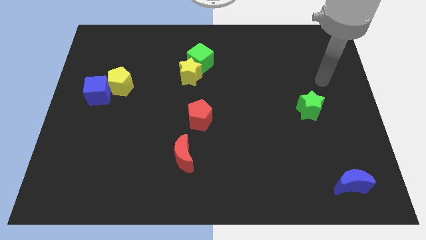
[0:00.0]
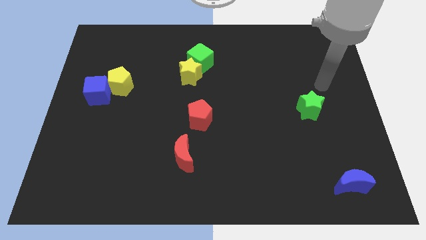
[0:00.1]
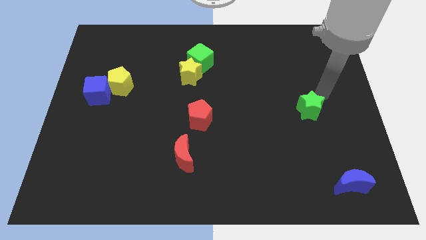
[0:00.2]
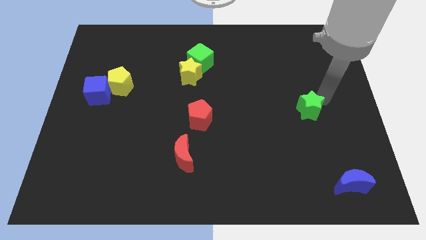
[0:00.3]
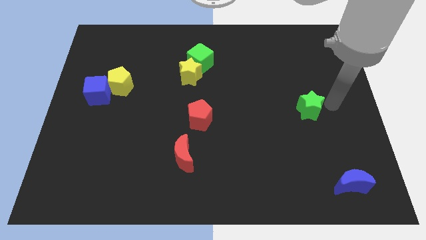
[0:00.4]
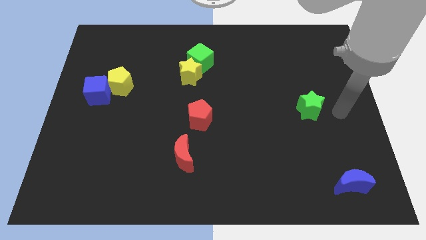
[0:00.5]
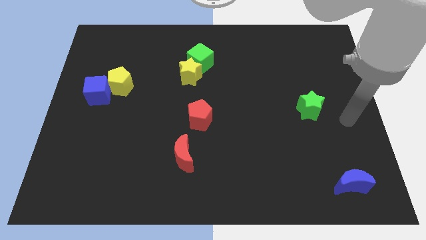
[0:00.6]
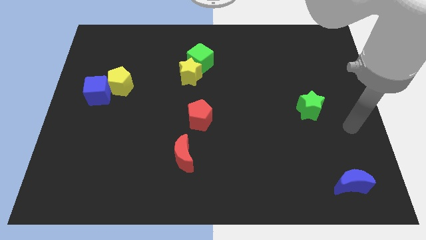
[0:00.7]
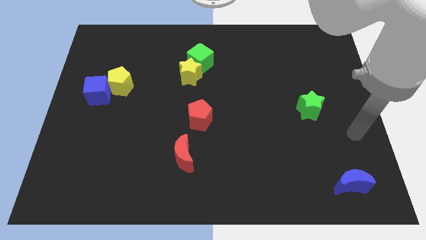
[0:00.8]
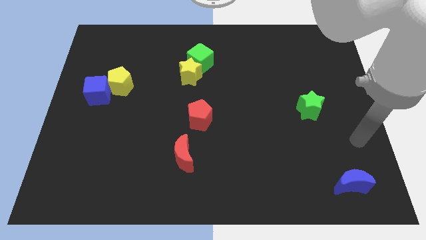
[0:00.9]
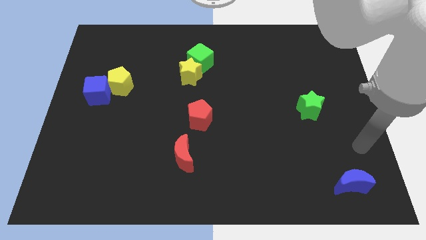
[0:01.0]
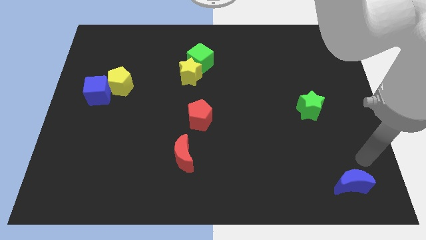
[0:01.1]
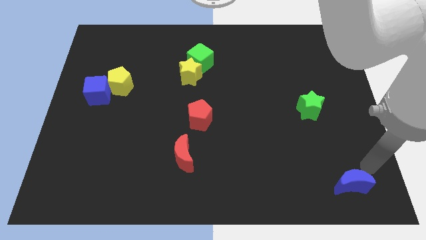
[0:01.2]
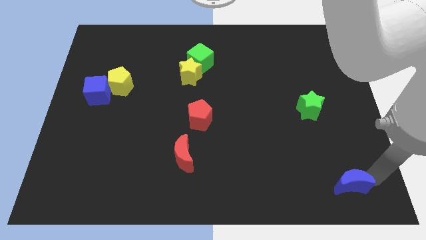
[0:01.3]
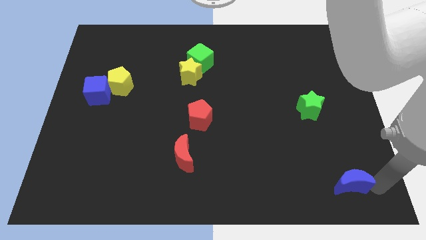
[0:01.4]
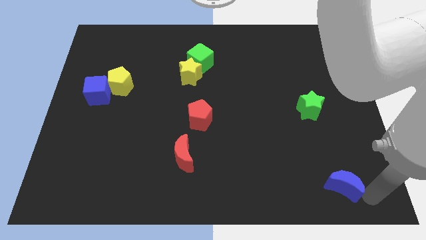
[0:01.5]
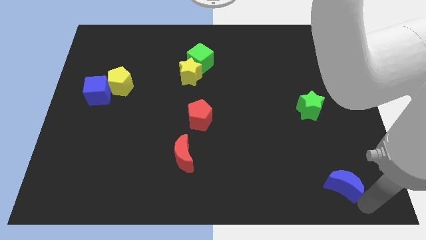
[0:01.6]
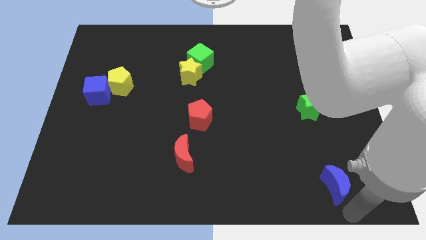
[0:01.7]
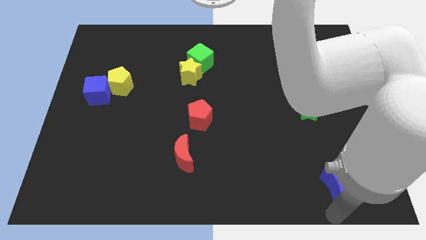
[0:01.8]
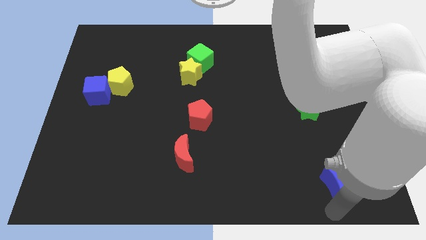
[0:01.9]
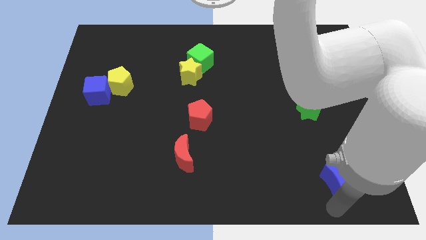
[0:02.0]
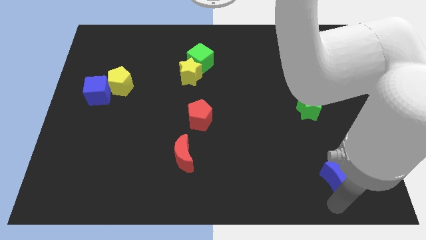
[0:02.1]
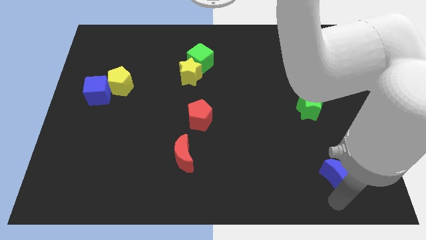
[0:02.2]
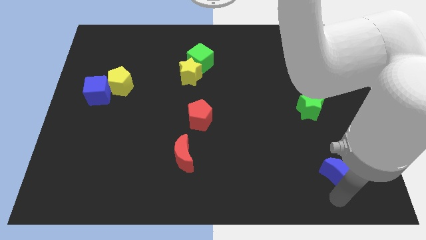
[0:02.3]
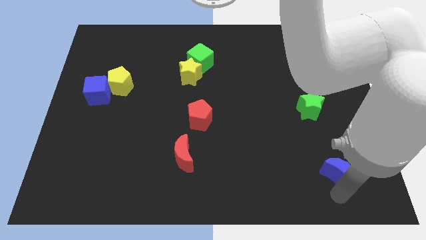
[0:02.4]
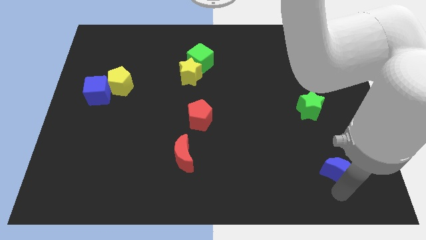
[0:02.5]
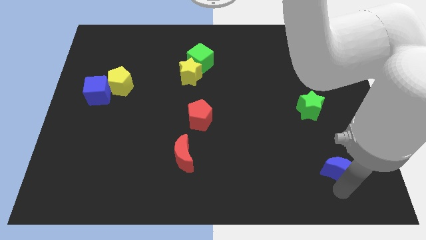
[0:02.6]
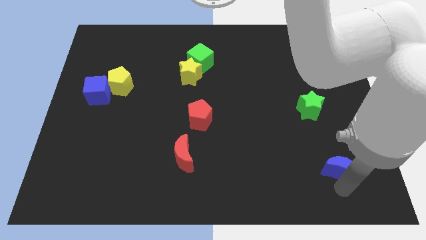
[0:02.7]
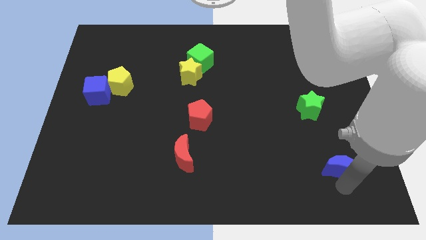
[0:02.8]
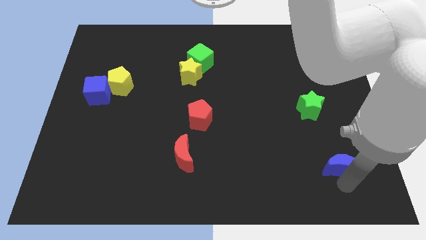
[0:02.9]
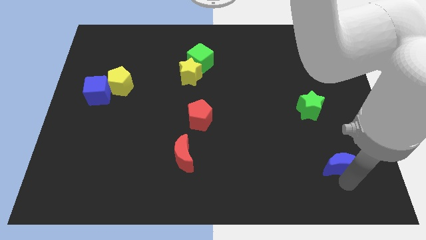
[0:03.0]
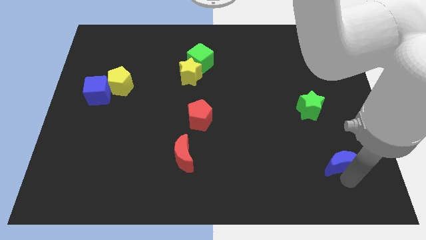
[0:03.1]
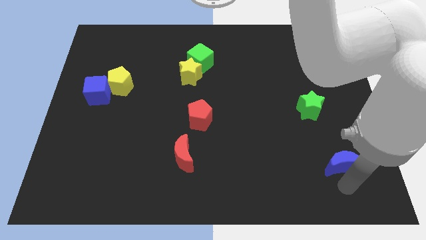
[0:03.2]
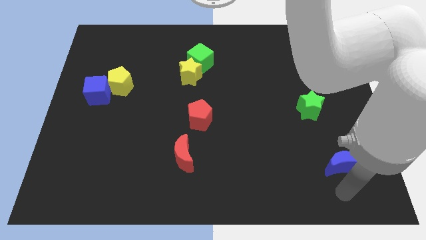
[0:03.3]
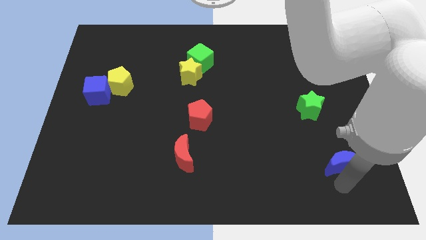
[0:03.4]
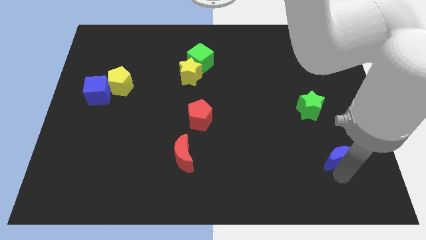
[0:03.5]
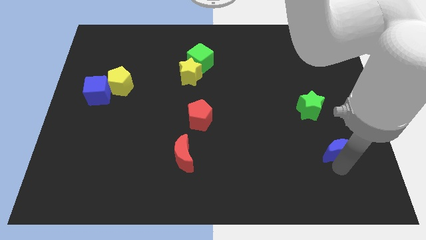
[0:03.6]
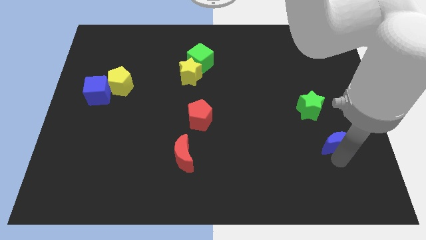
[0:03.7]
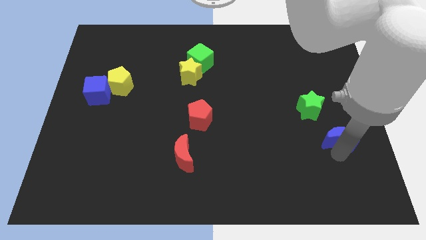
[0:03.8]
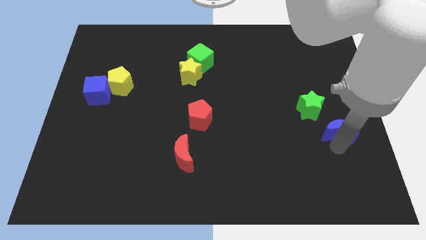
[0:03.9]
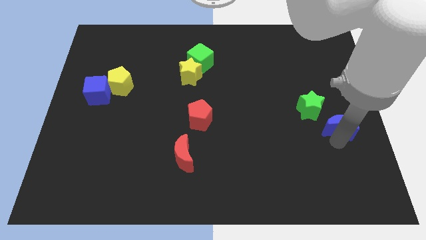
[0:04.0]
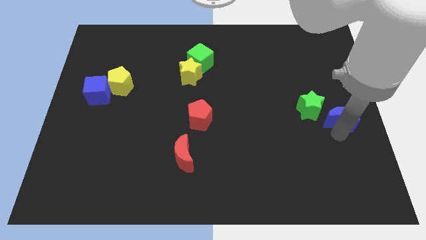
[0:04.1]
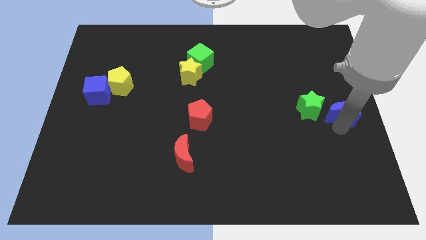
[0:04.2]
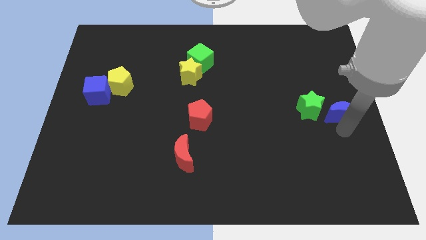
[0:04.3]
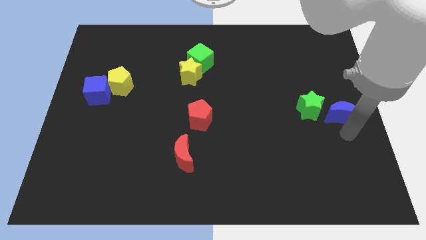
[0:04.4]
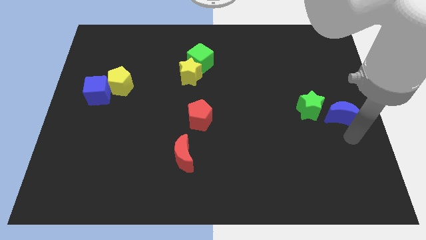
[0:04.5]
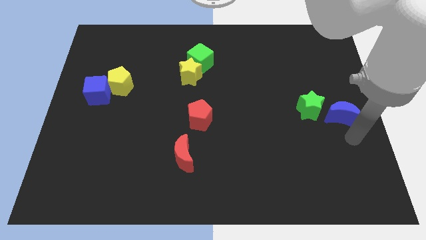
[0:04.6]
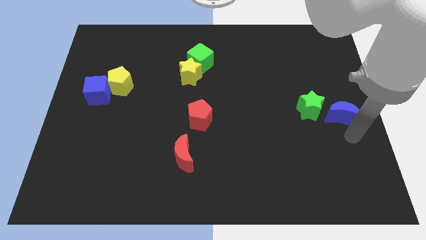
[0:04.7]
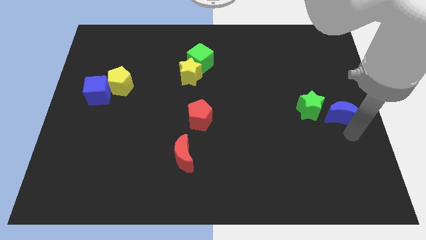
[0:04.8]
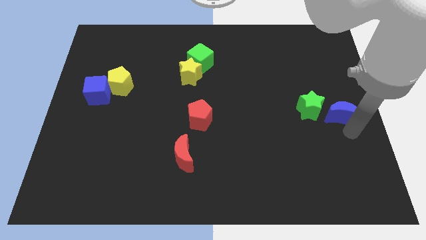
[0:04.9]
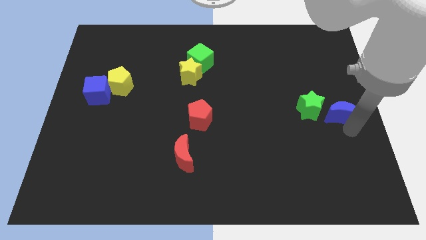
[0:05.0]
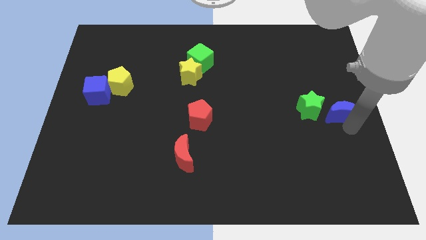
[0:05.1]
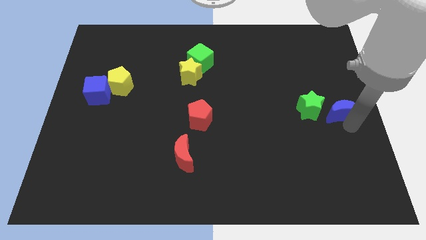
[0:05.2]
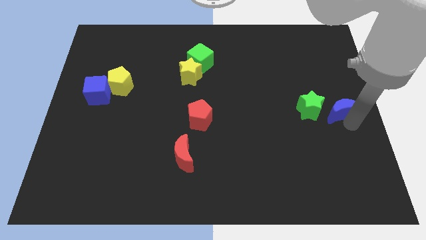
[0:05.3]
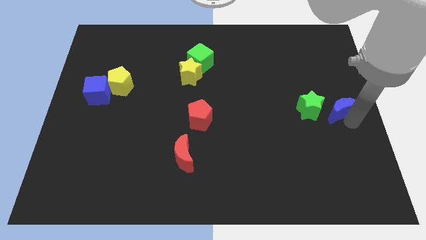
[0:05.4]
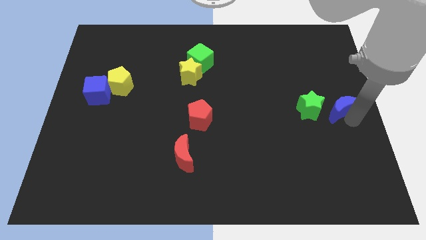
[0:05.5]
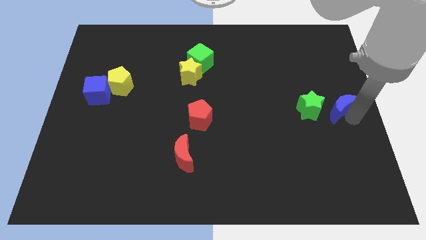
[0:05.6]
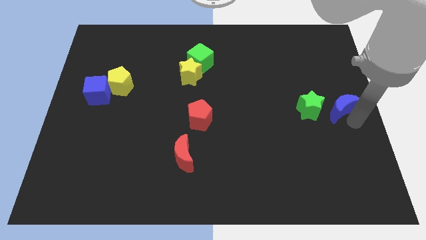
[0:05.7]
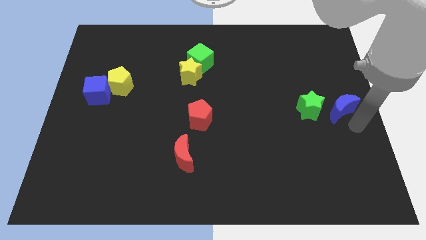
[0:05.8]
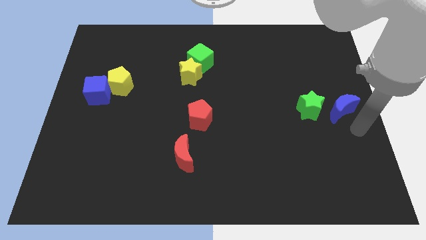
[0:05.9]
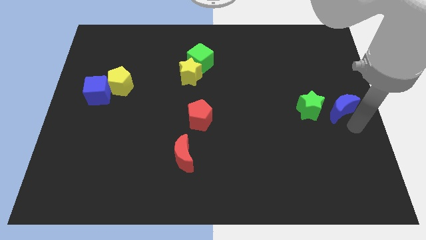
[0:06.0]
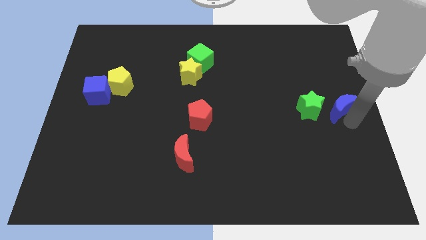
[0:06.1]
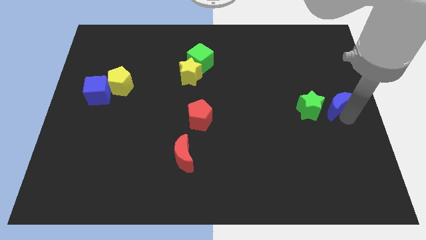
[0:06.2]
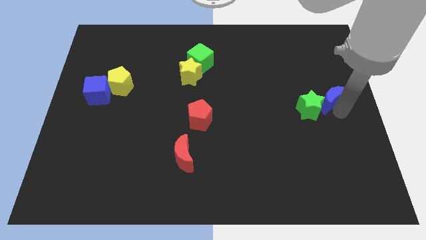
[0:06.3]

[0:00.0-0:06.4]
move the blue moon up

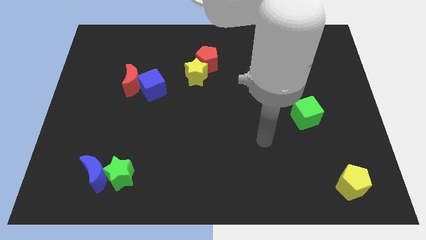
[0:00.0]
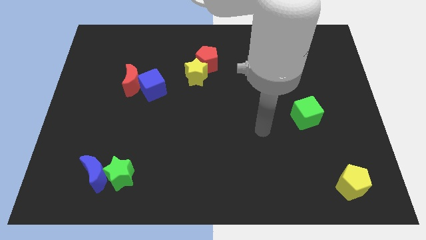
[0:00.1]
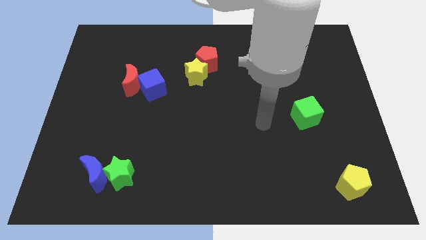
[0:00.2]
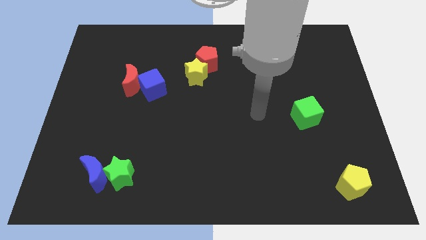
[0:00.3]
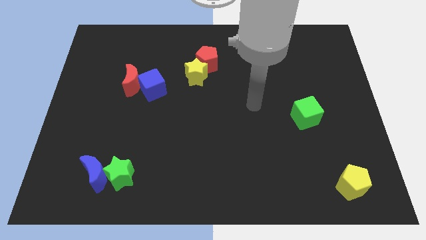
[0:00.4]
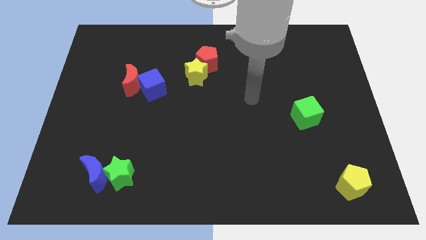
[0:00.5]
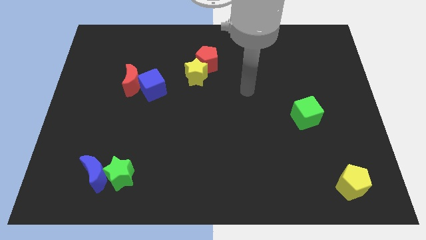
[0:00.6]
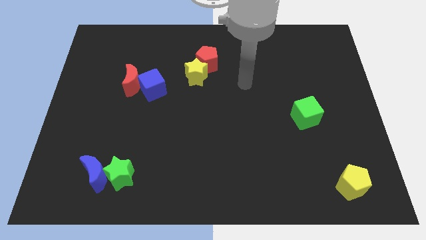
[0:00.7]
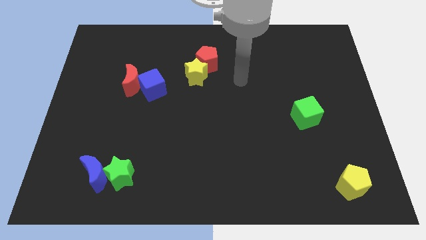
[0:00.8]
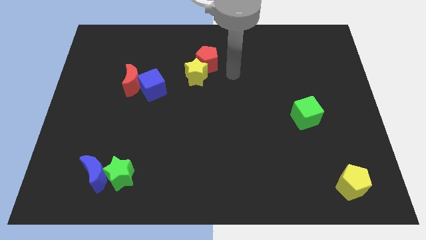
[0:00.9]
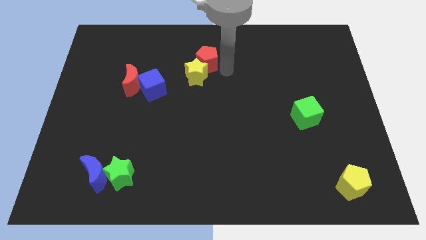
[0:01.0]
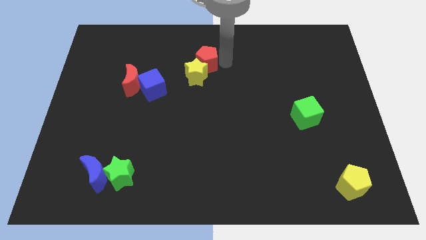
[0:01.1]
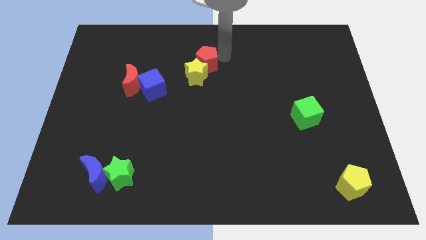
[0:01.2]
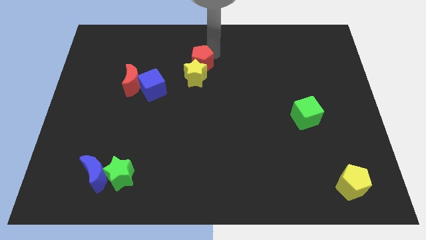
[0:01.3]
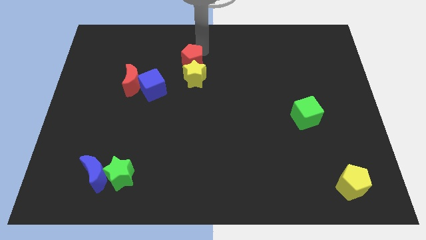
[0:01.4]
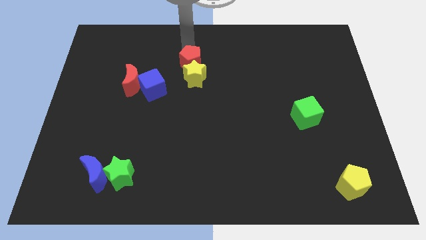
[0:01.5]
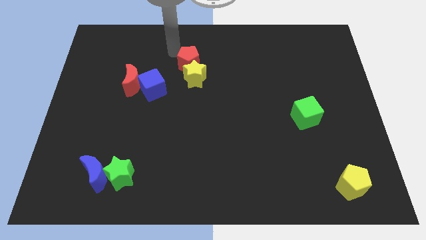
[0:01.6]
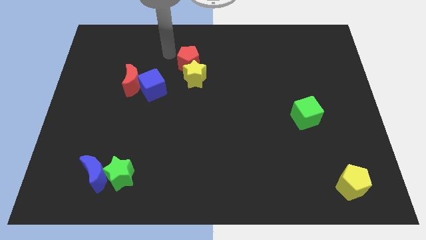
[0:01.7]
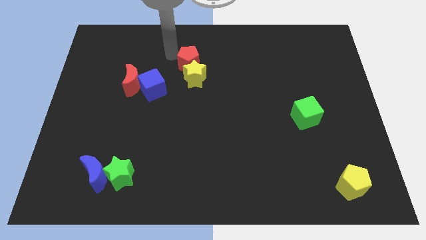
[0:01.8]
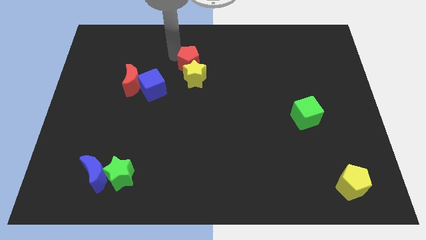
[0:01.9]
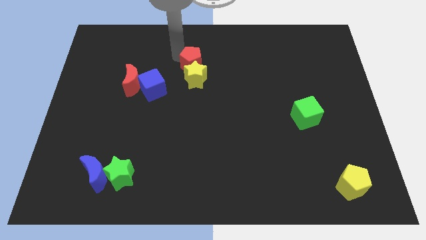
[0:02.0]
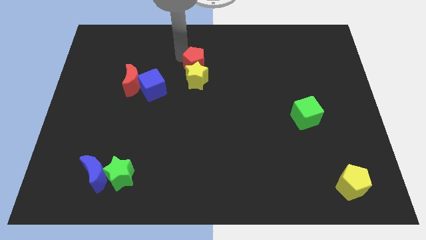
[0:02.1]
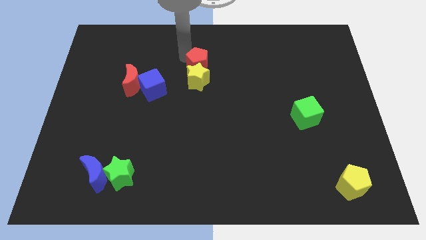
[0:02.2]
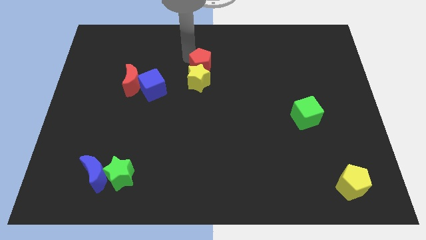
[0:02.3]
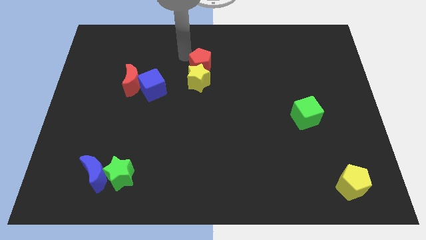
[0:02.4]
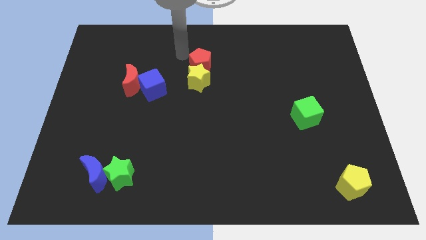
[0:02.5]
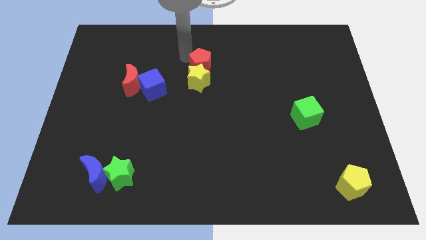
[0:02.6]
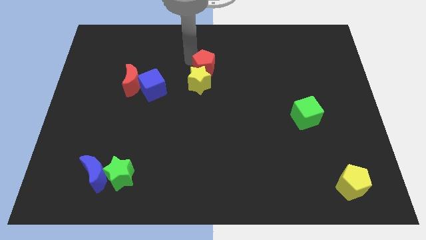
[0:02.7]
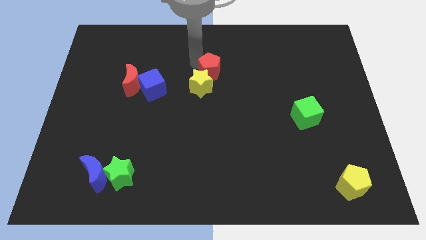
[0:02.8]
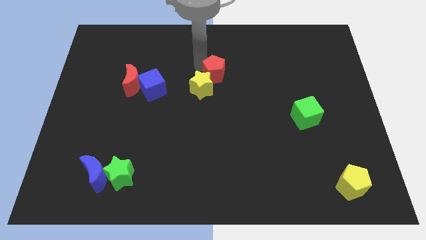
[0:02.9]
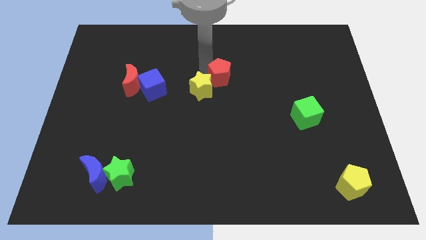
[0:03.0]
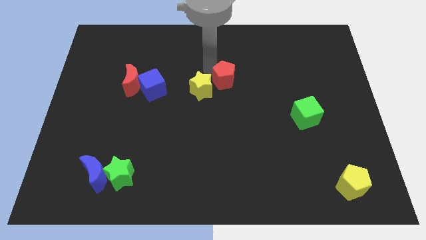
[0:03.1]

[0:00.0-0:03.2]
move the red pentagon diagonally down and to the right a little
